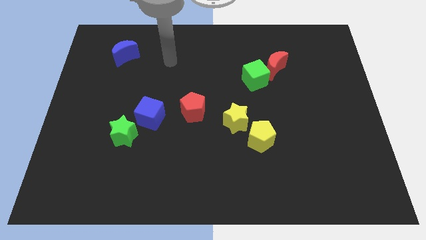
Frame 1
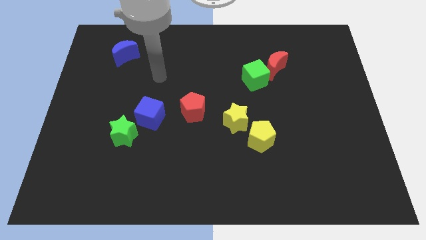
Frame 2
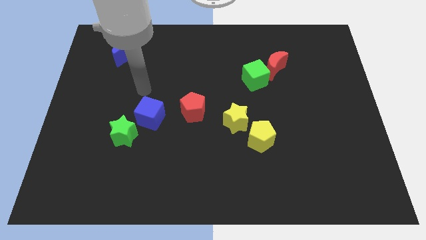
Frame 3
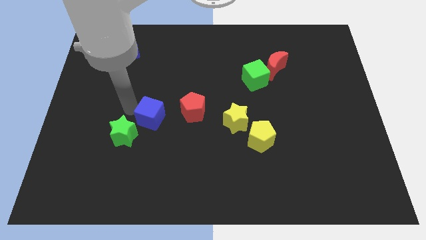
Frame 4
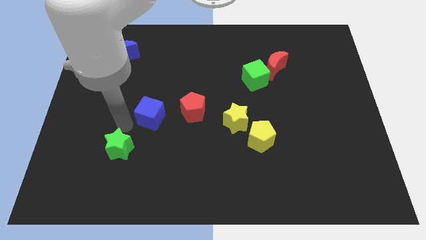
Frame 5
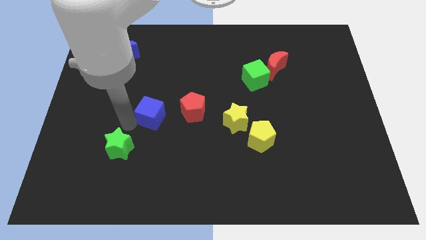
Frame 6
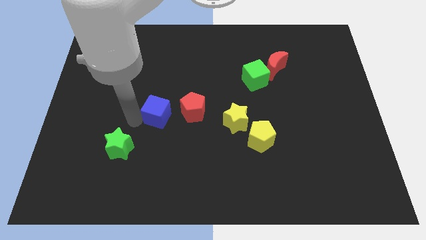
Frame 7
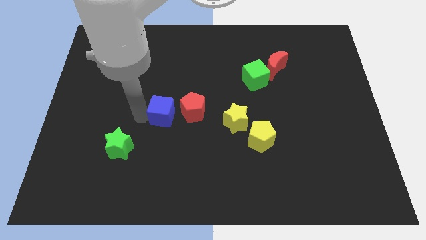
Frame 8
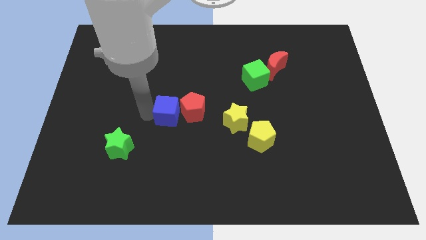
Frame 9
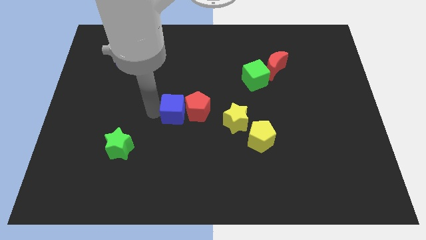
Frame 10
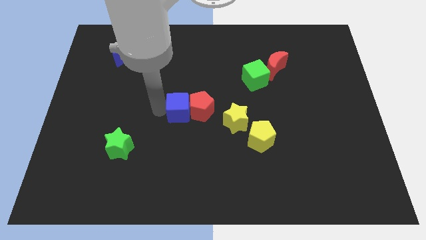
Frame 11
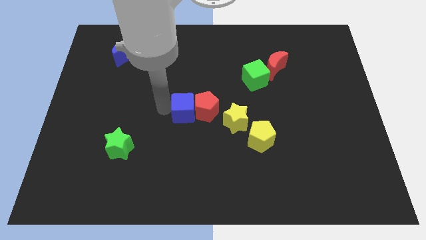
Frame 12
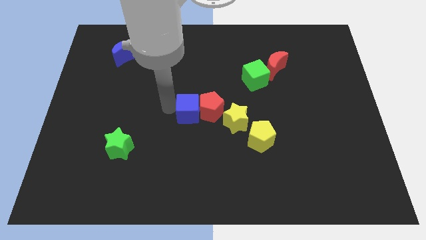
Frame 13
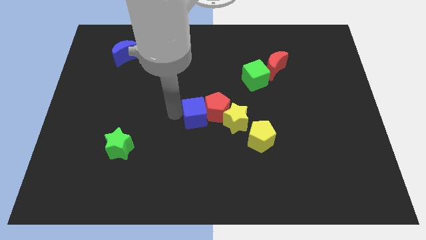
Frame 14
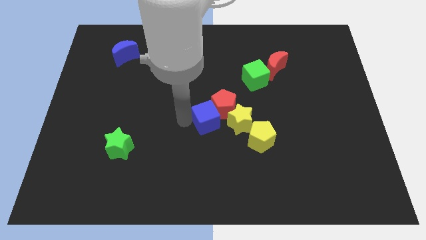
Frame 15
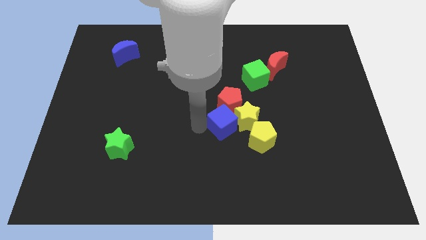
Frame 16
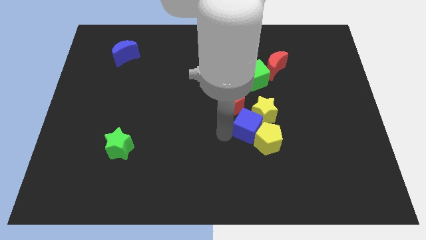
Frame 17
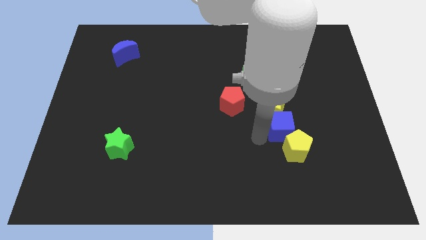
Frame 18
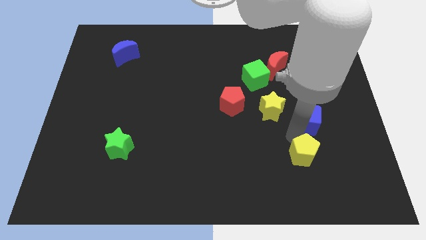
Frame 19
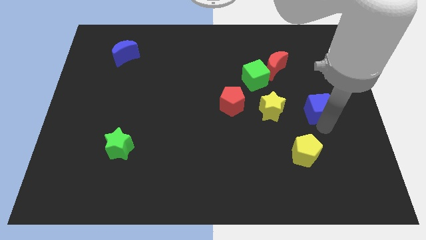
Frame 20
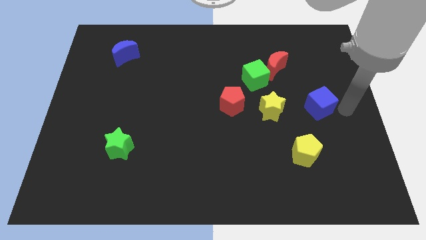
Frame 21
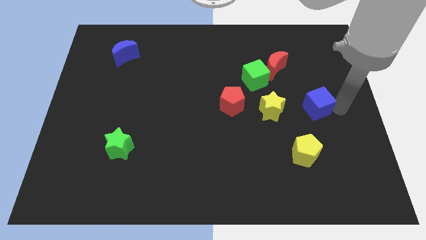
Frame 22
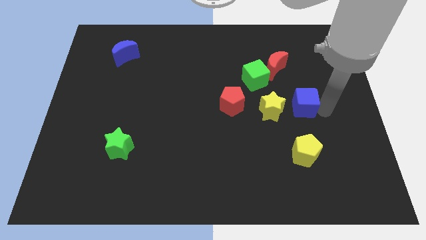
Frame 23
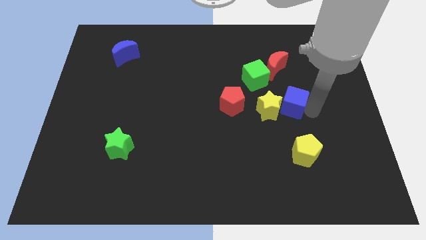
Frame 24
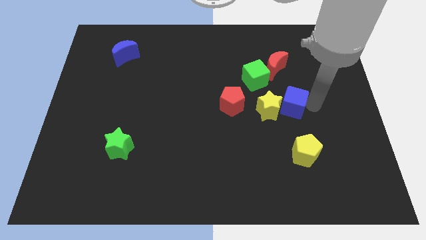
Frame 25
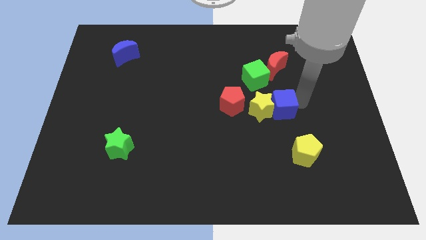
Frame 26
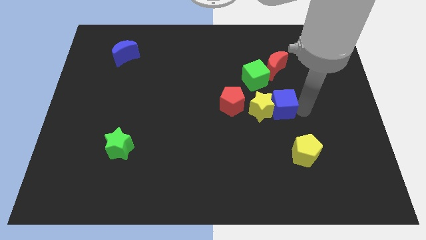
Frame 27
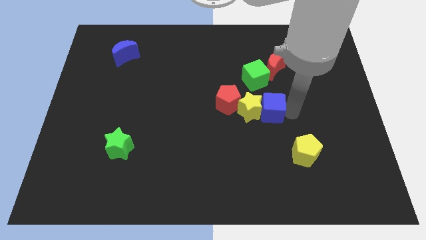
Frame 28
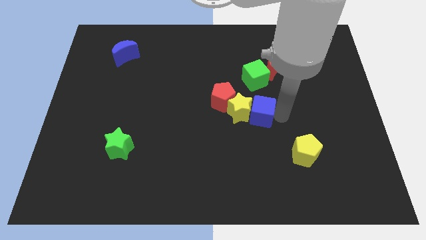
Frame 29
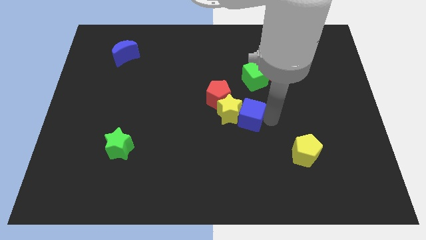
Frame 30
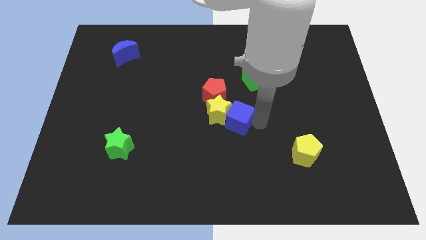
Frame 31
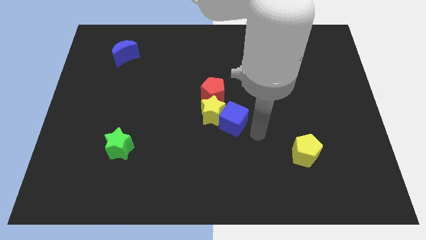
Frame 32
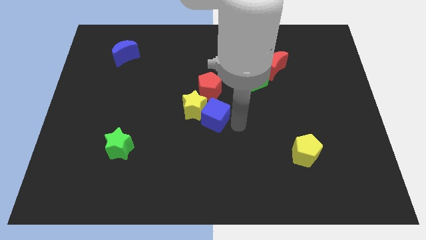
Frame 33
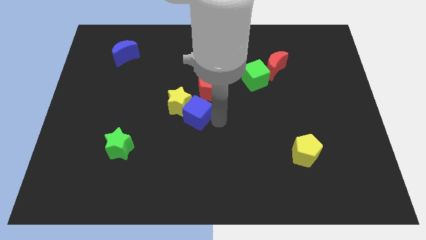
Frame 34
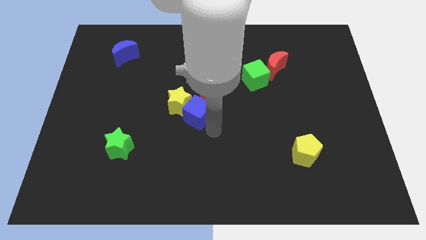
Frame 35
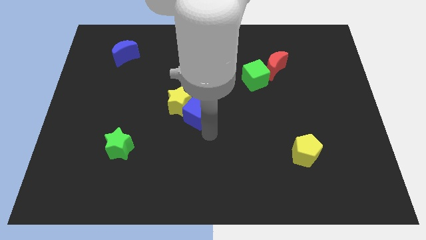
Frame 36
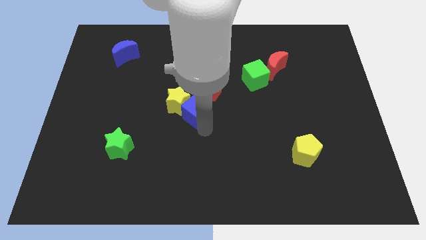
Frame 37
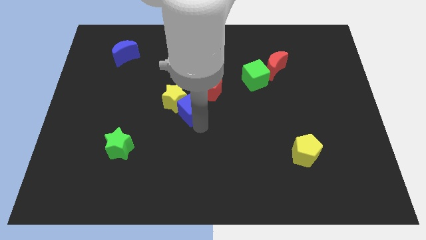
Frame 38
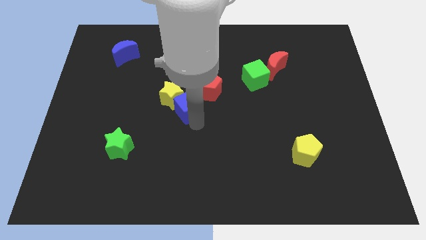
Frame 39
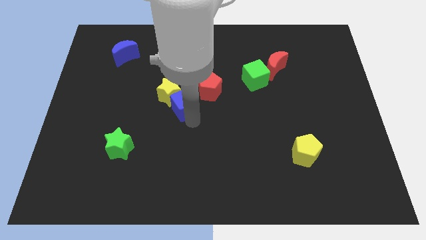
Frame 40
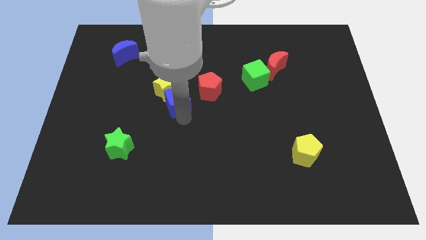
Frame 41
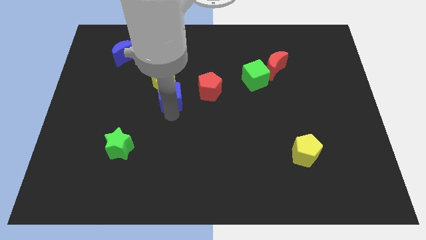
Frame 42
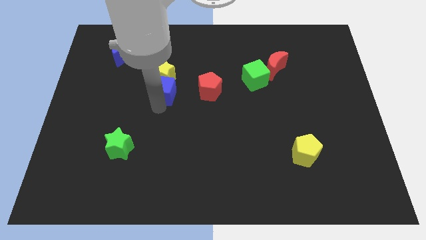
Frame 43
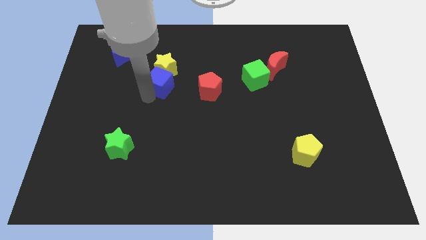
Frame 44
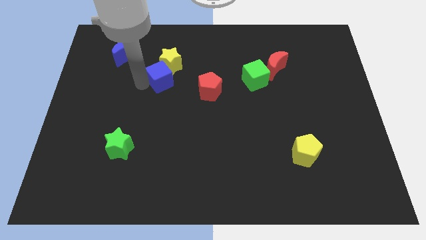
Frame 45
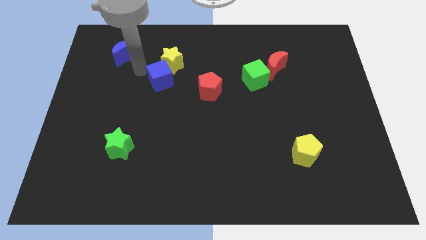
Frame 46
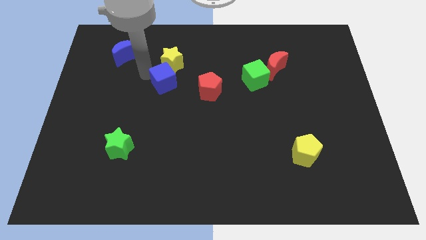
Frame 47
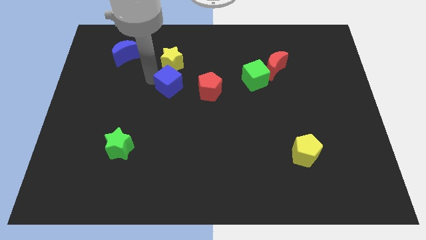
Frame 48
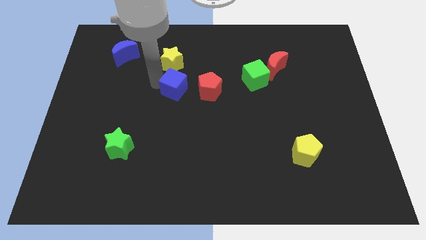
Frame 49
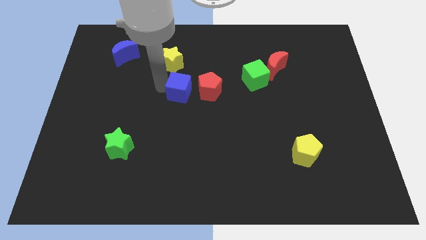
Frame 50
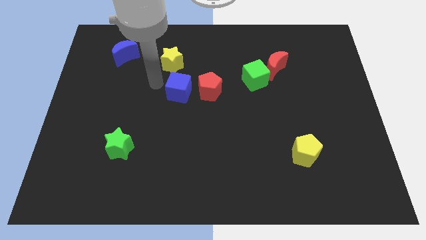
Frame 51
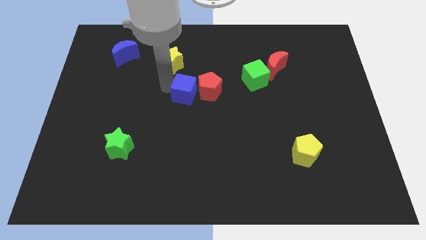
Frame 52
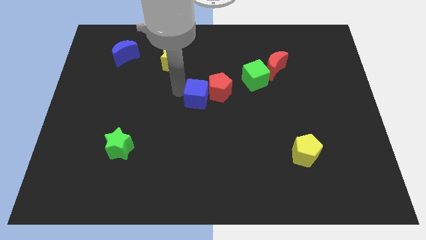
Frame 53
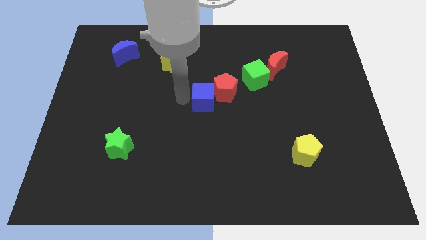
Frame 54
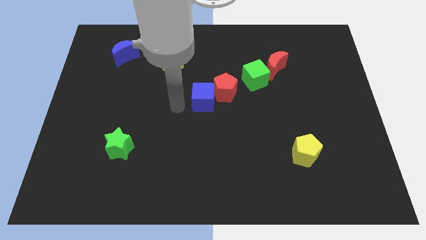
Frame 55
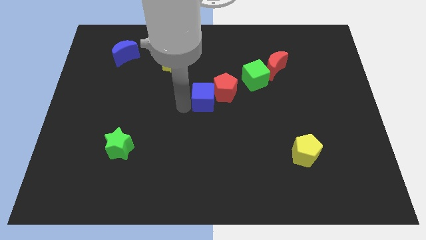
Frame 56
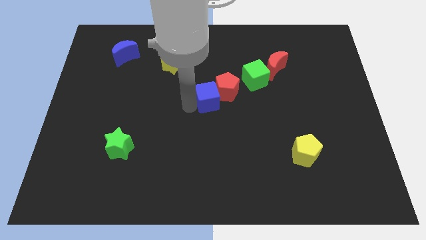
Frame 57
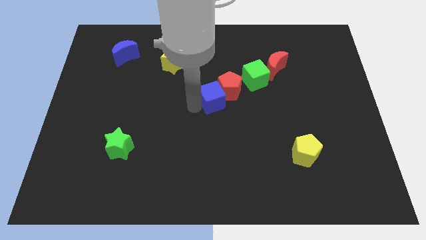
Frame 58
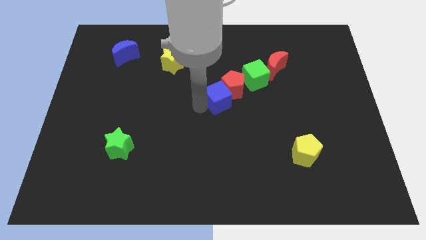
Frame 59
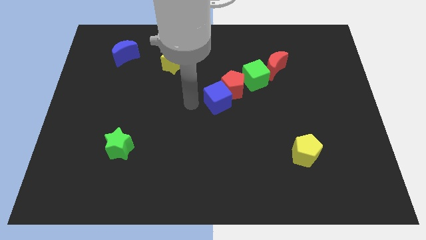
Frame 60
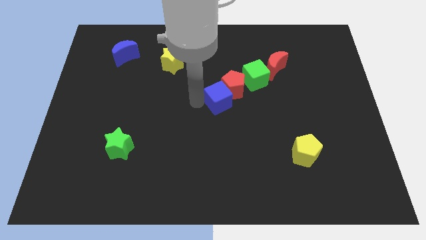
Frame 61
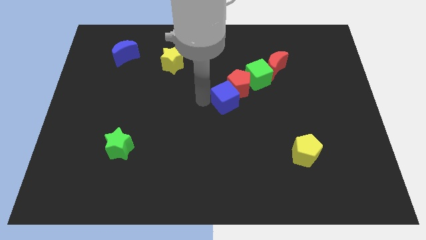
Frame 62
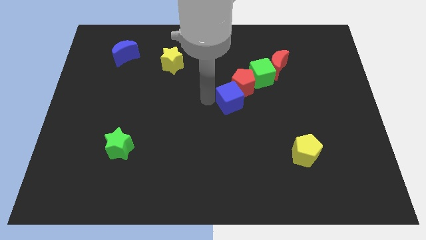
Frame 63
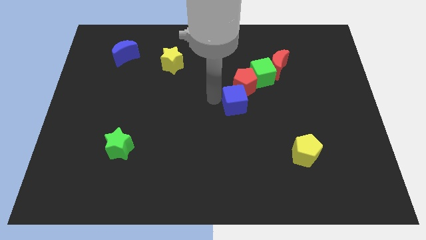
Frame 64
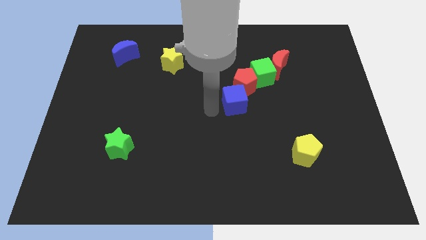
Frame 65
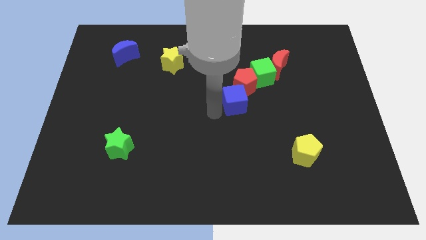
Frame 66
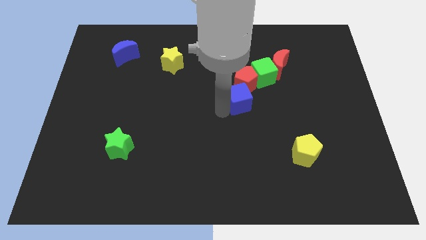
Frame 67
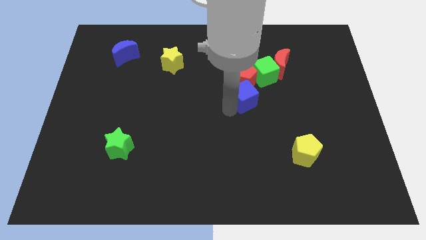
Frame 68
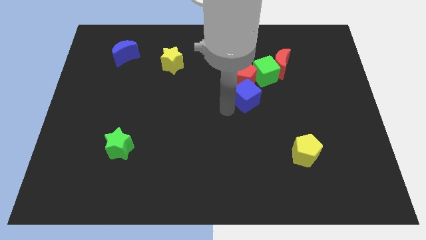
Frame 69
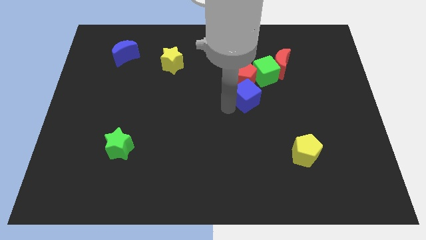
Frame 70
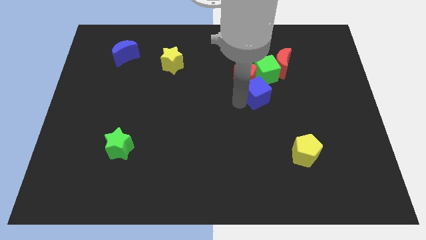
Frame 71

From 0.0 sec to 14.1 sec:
move the blue cube to the bottom left side of the red moon

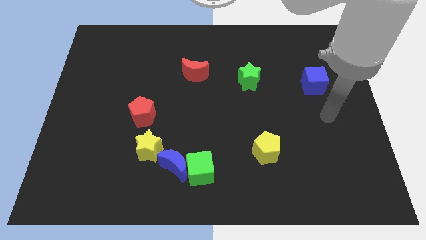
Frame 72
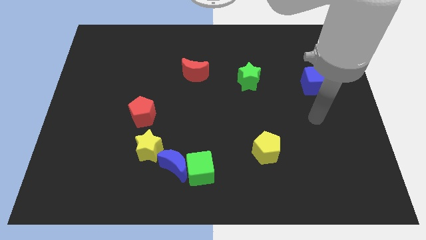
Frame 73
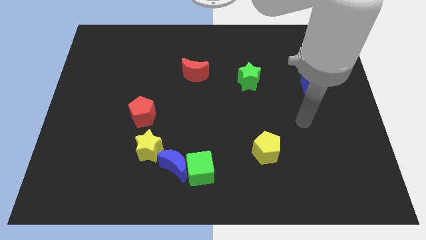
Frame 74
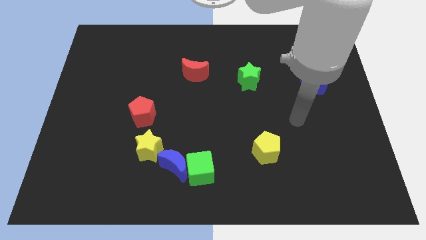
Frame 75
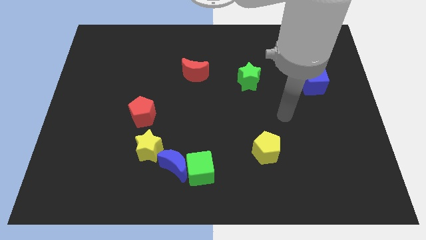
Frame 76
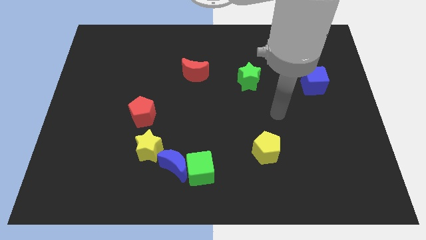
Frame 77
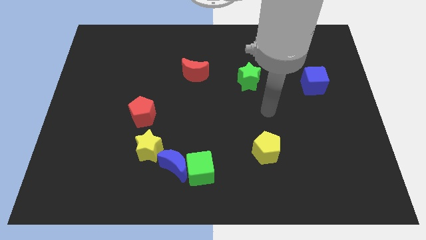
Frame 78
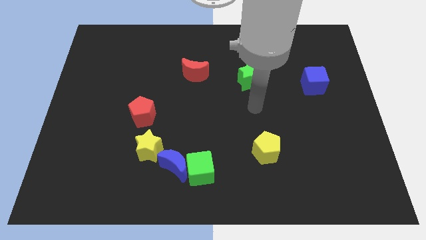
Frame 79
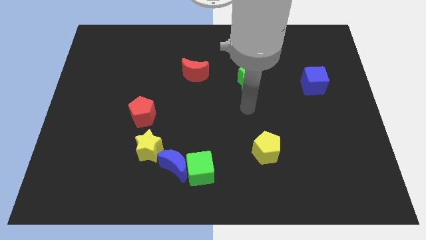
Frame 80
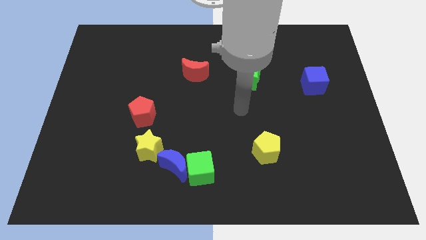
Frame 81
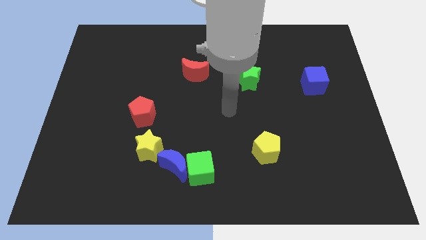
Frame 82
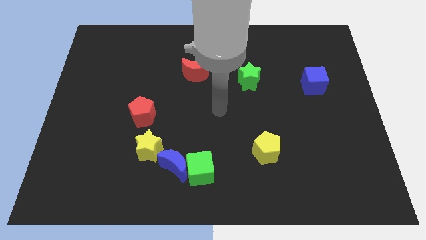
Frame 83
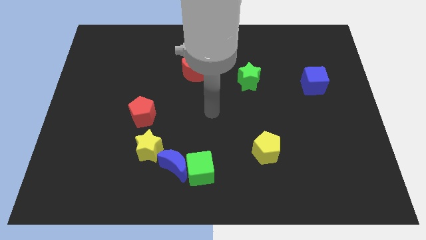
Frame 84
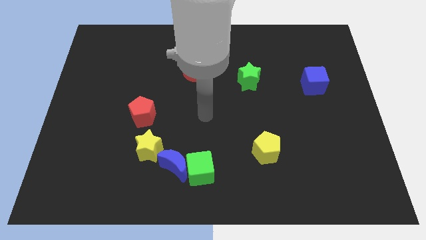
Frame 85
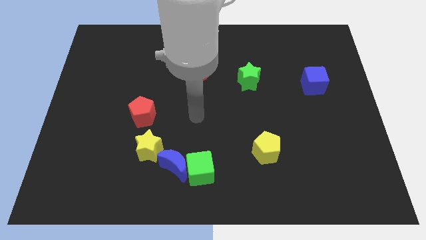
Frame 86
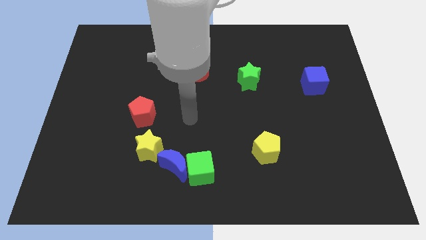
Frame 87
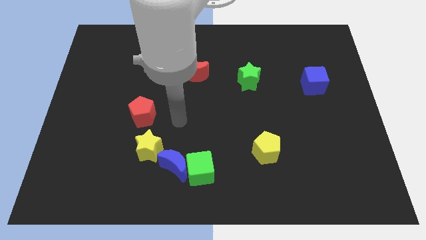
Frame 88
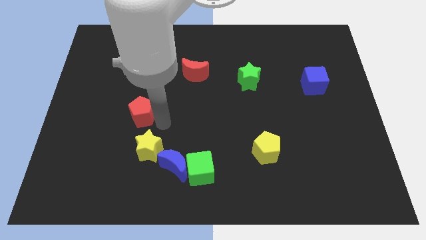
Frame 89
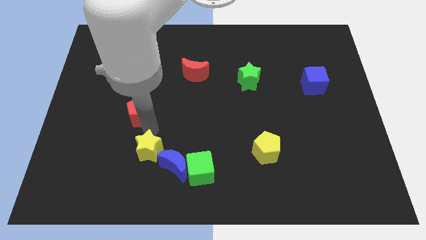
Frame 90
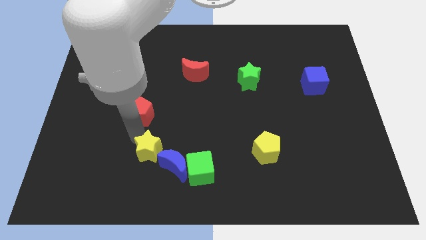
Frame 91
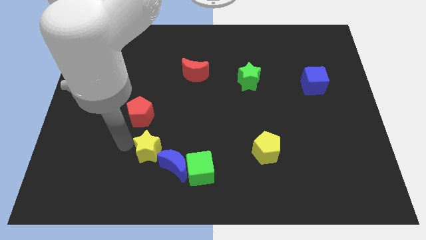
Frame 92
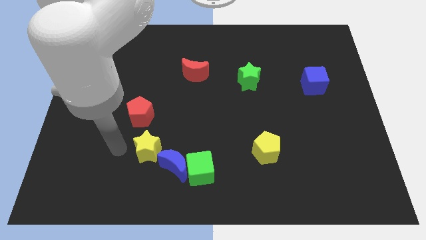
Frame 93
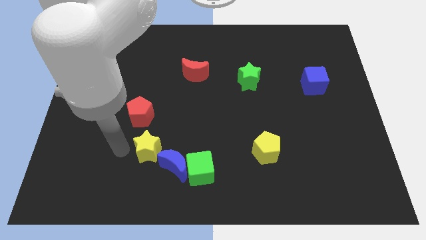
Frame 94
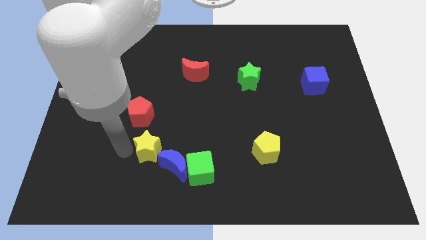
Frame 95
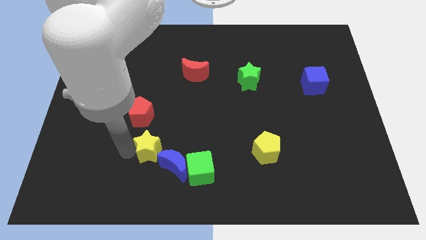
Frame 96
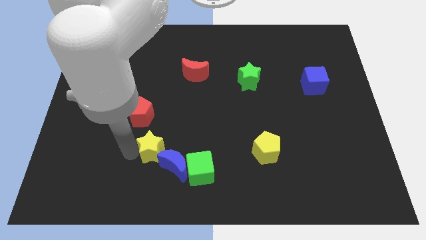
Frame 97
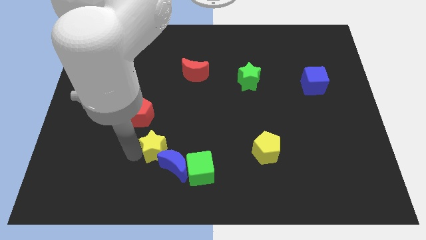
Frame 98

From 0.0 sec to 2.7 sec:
move the yellow star to the top left side of the green cube
